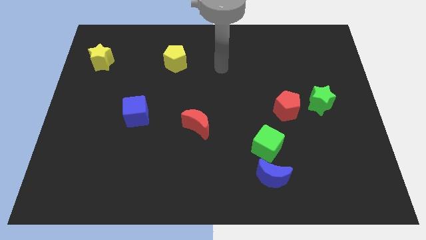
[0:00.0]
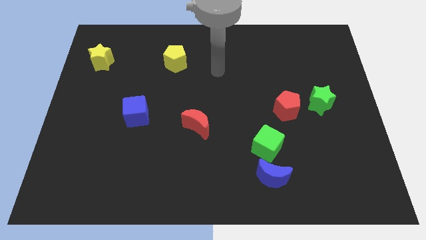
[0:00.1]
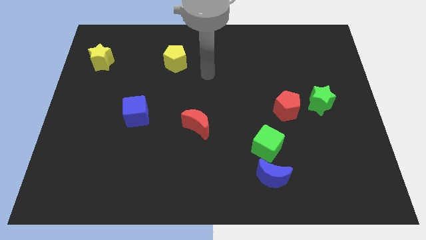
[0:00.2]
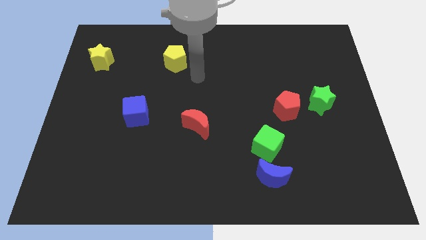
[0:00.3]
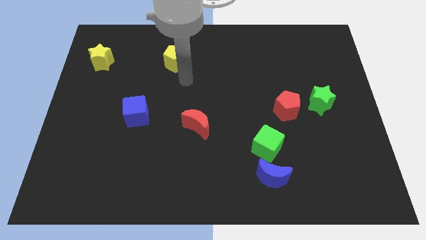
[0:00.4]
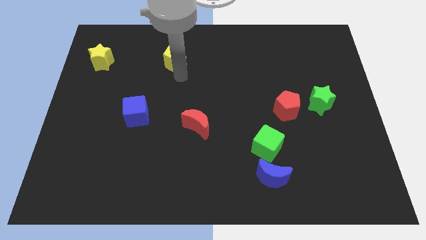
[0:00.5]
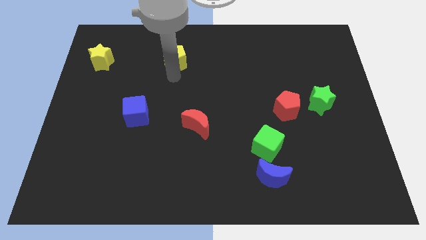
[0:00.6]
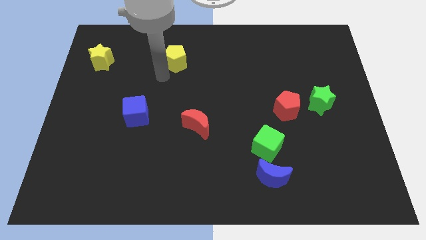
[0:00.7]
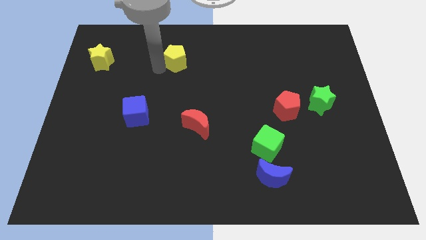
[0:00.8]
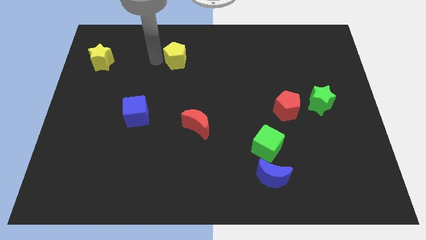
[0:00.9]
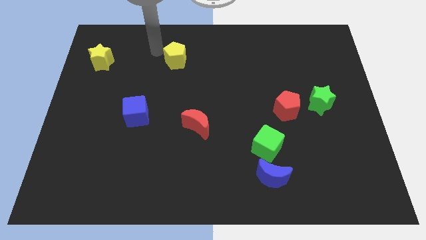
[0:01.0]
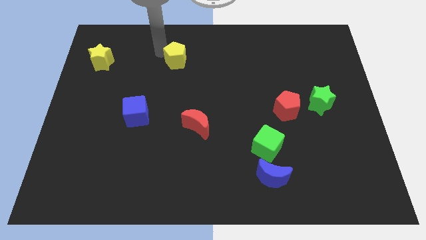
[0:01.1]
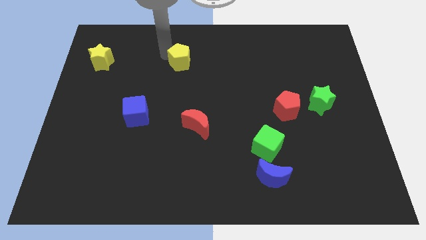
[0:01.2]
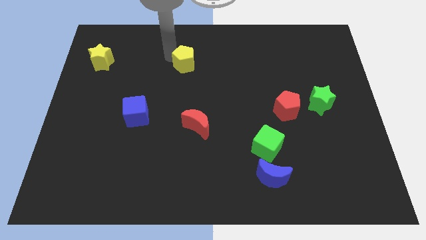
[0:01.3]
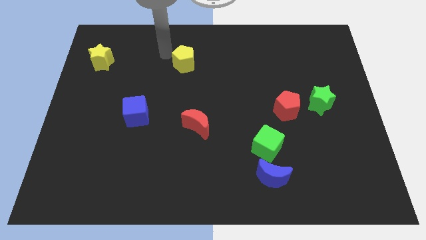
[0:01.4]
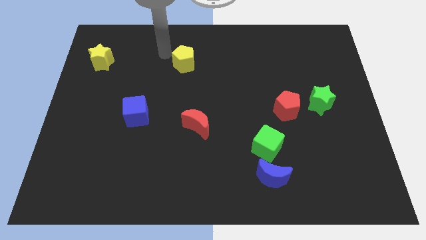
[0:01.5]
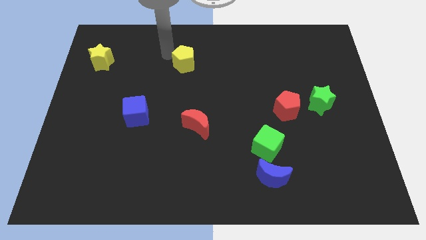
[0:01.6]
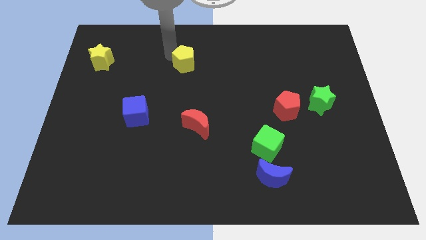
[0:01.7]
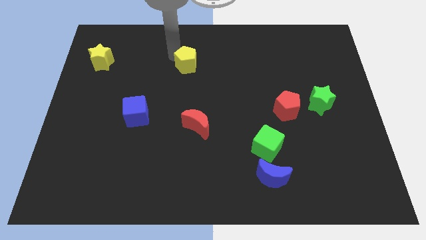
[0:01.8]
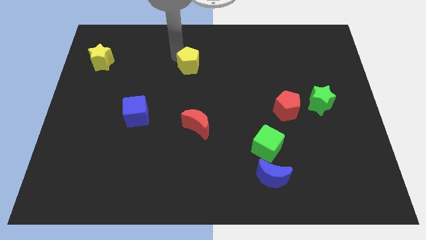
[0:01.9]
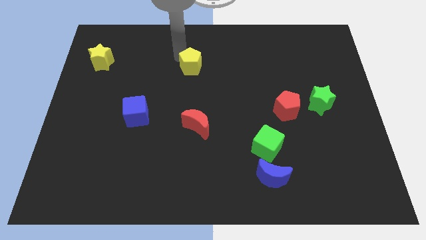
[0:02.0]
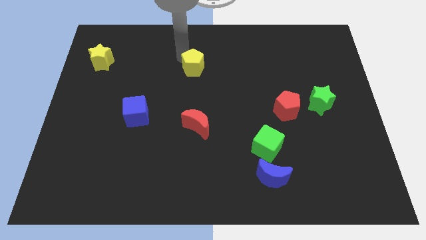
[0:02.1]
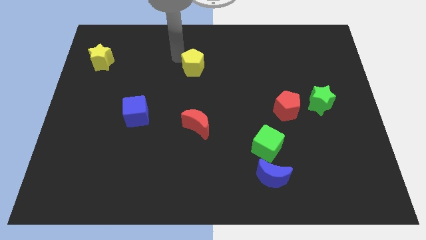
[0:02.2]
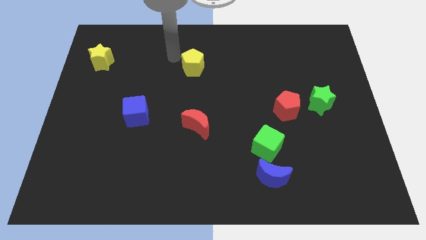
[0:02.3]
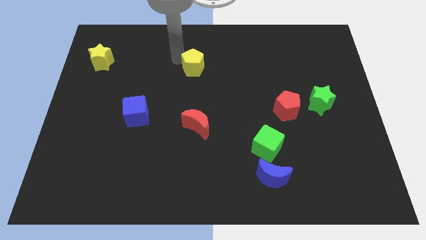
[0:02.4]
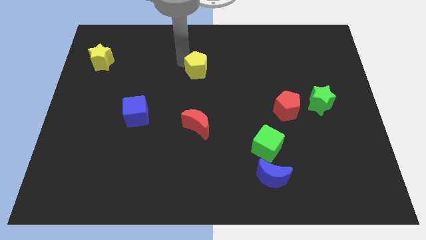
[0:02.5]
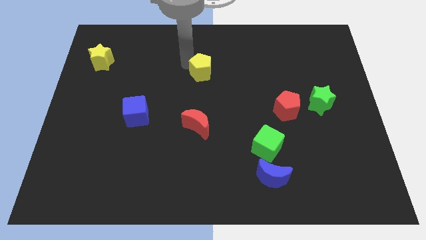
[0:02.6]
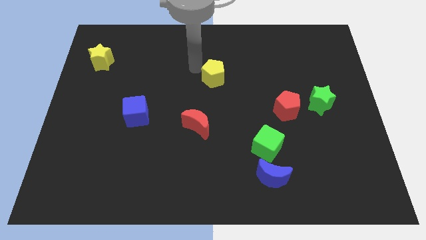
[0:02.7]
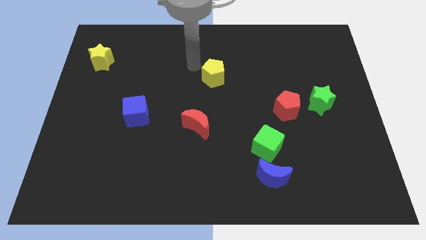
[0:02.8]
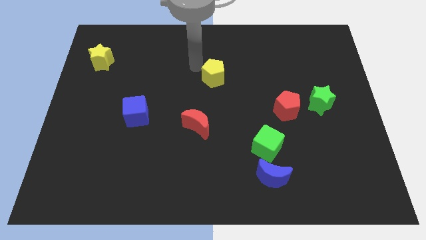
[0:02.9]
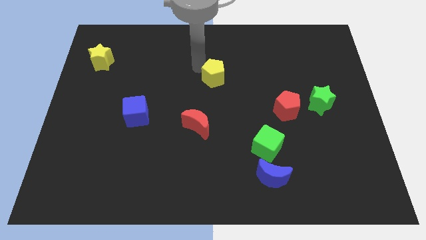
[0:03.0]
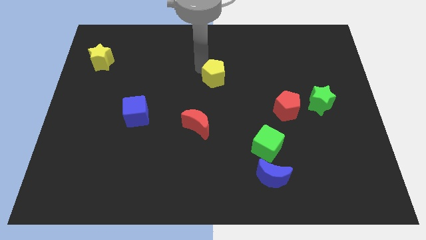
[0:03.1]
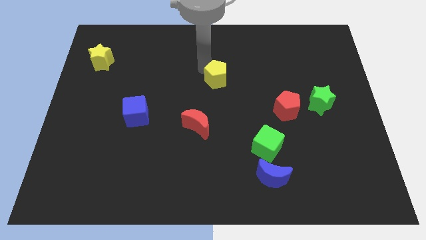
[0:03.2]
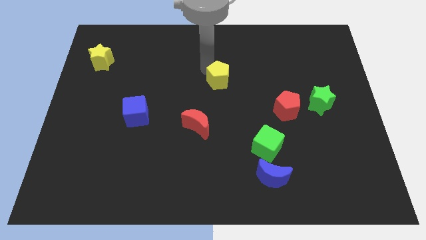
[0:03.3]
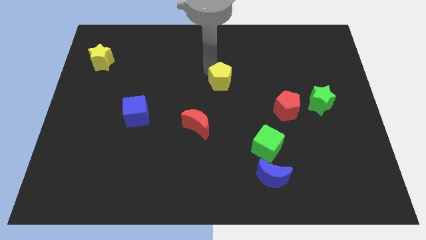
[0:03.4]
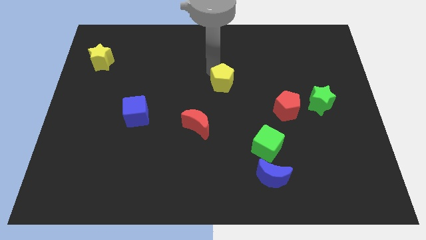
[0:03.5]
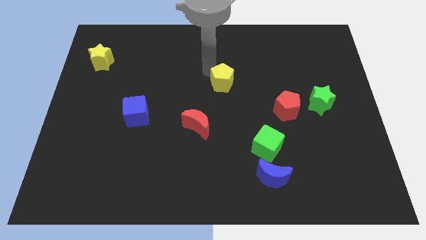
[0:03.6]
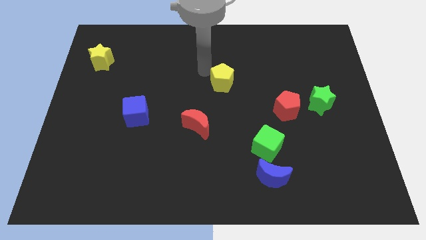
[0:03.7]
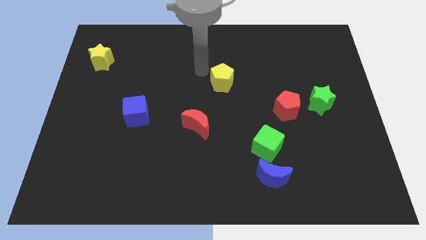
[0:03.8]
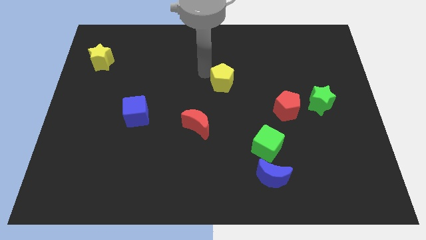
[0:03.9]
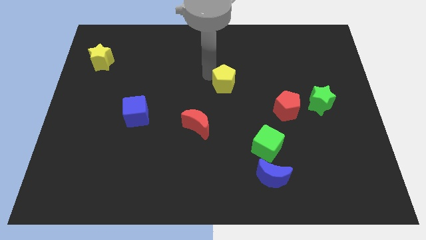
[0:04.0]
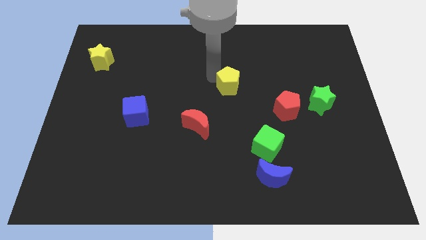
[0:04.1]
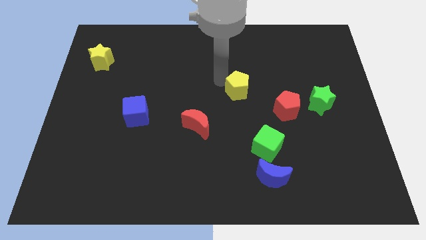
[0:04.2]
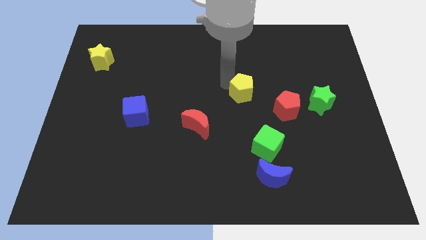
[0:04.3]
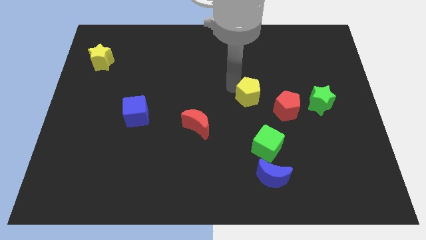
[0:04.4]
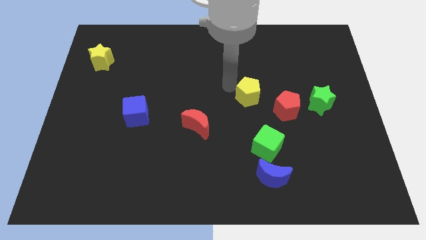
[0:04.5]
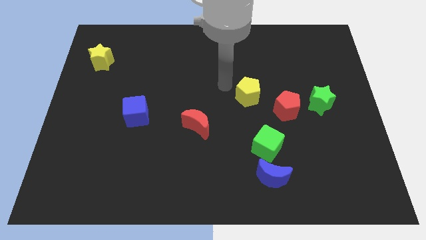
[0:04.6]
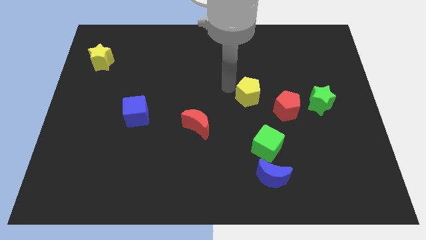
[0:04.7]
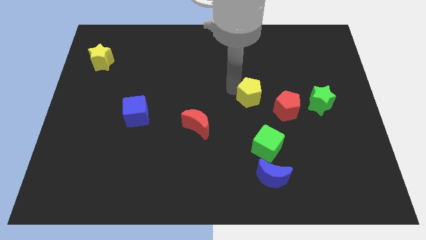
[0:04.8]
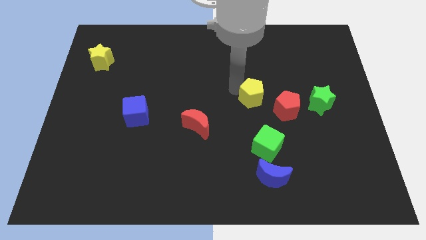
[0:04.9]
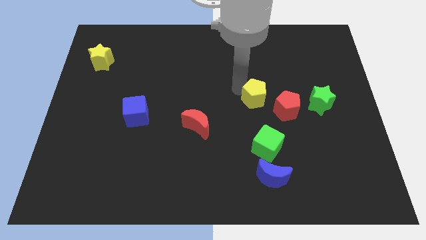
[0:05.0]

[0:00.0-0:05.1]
move the yellow pentagon just left of the green star

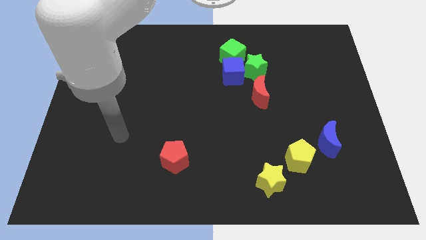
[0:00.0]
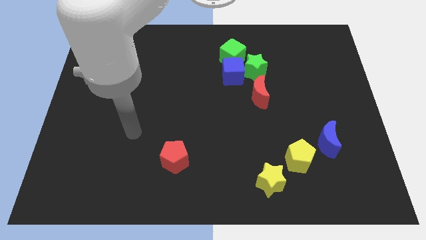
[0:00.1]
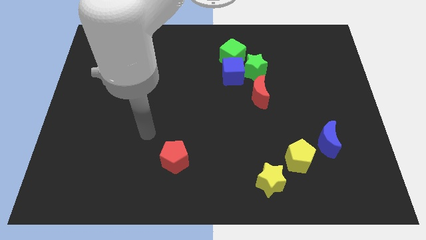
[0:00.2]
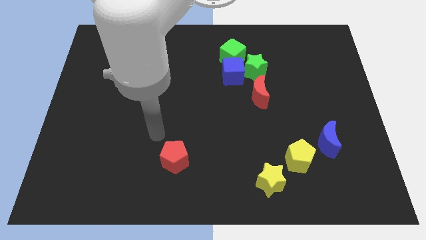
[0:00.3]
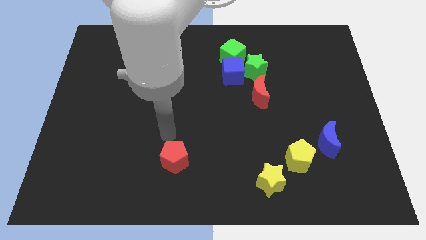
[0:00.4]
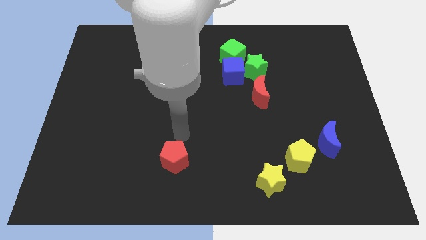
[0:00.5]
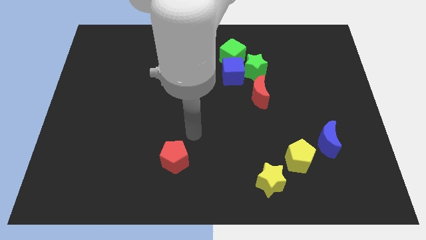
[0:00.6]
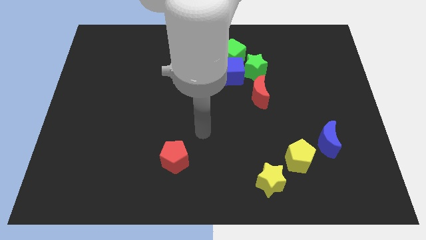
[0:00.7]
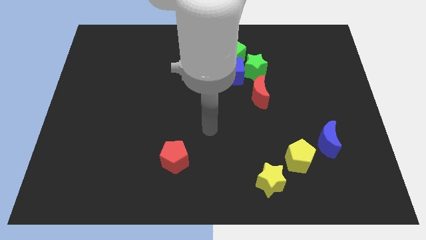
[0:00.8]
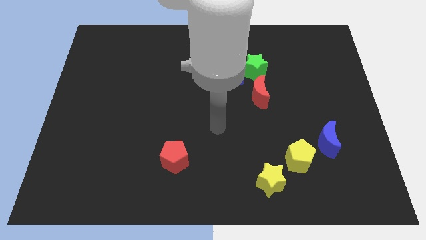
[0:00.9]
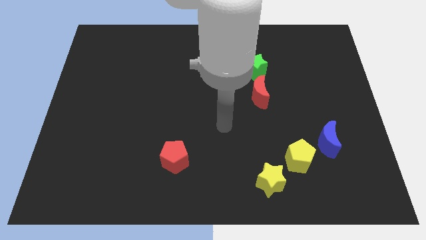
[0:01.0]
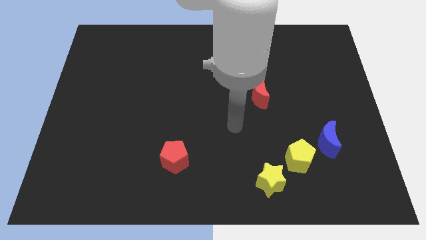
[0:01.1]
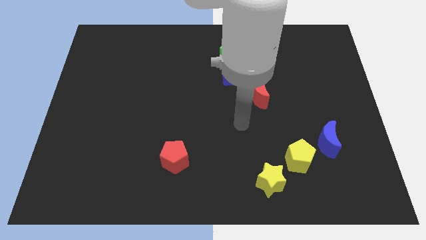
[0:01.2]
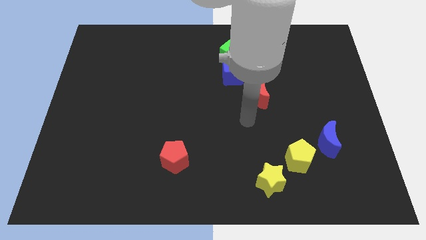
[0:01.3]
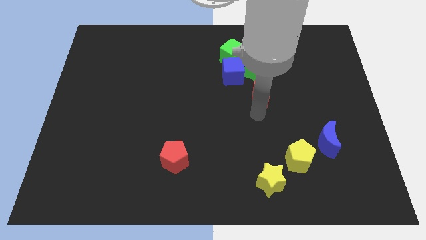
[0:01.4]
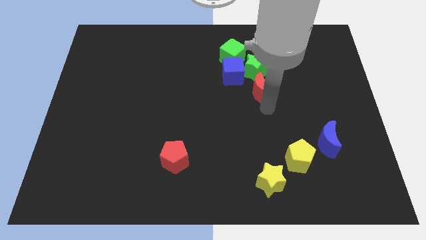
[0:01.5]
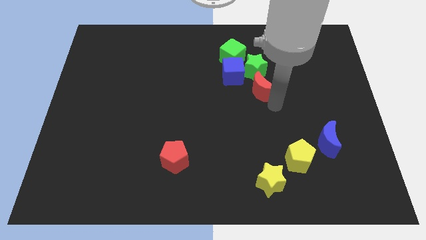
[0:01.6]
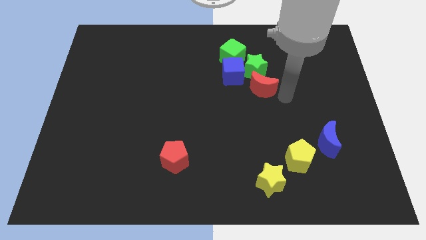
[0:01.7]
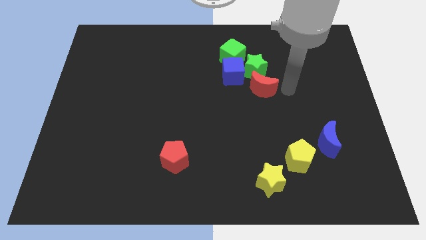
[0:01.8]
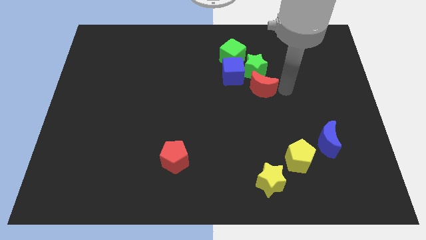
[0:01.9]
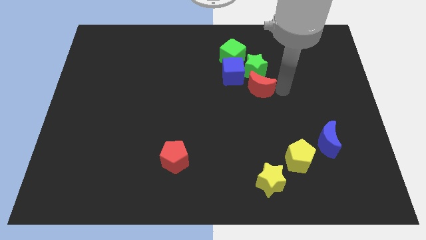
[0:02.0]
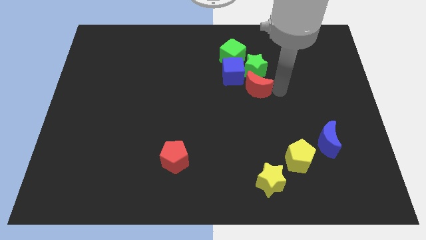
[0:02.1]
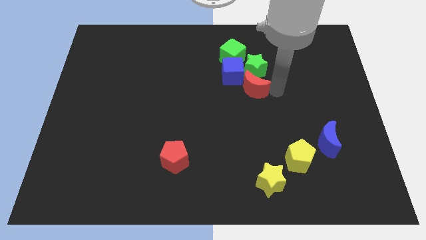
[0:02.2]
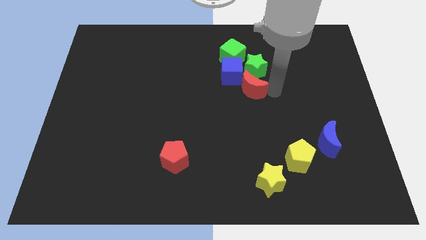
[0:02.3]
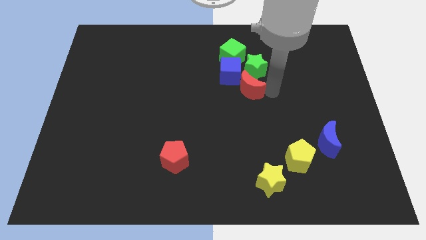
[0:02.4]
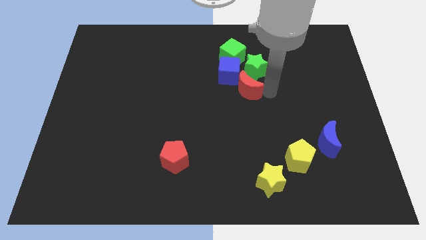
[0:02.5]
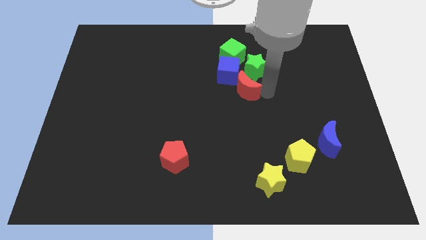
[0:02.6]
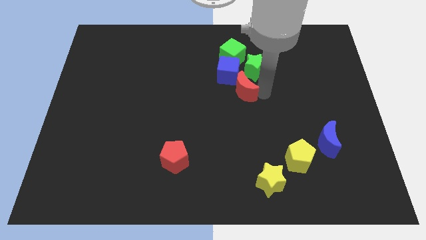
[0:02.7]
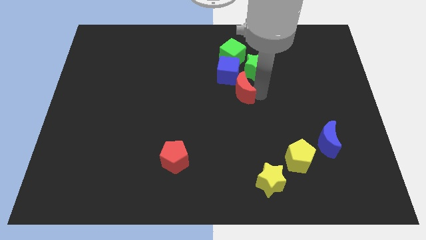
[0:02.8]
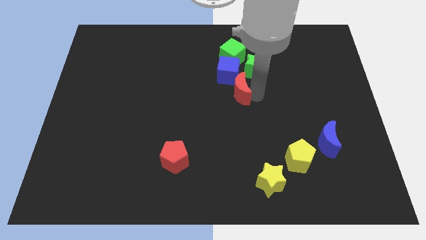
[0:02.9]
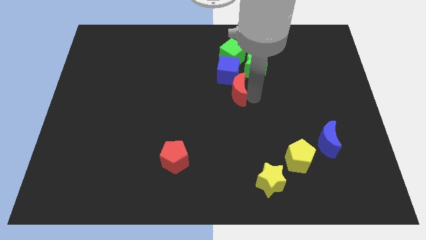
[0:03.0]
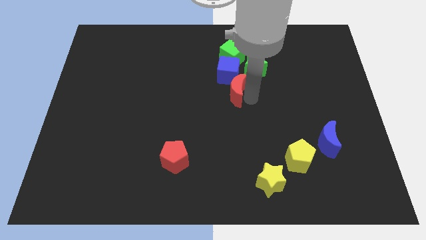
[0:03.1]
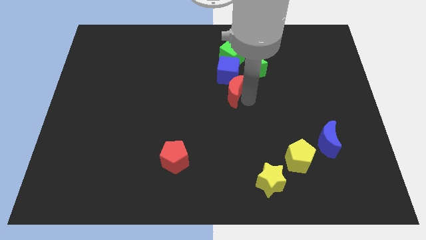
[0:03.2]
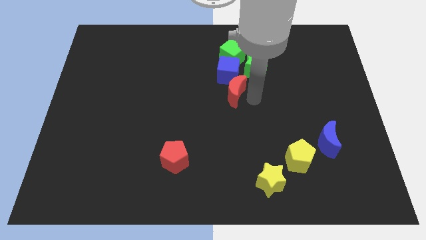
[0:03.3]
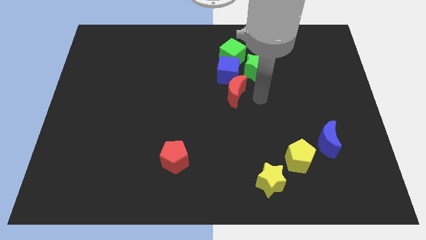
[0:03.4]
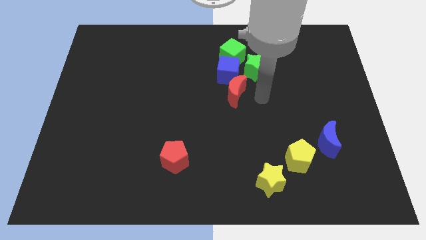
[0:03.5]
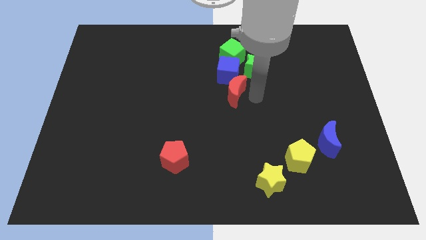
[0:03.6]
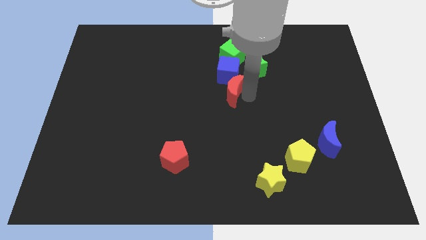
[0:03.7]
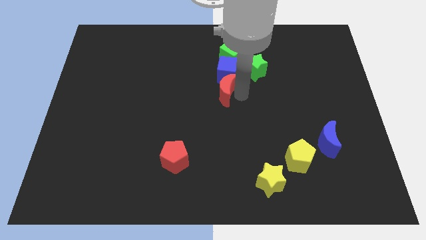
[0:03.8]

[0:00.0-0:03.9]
put the red moon to the bottom left side of the blue cube
